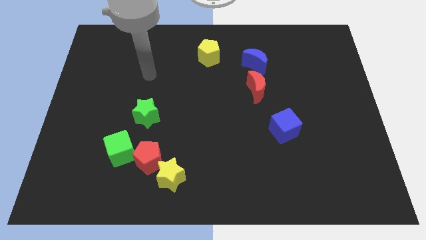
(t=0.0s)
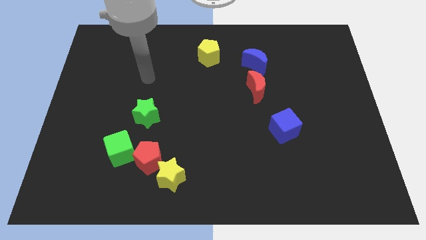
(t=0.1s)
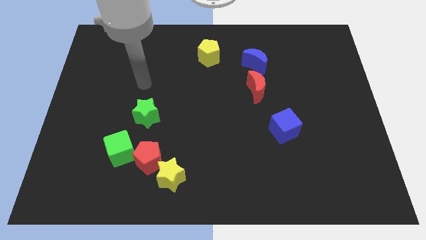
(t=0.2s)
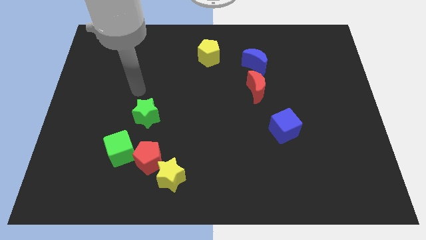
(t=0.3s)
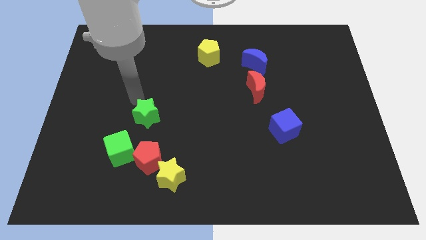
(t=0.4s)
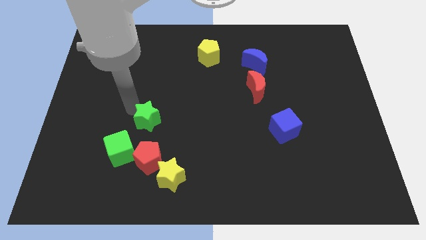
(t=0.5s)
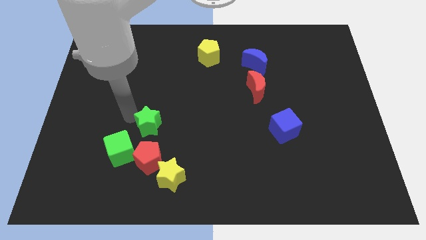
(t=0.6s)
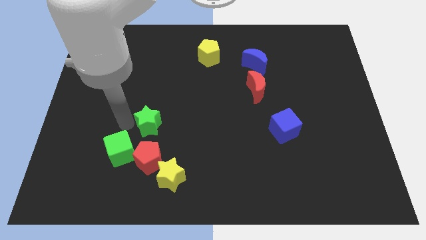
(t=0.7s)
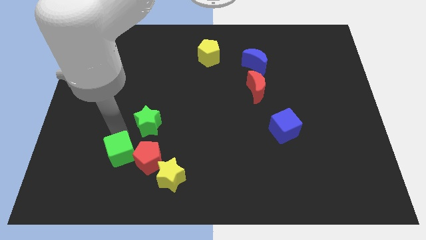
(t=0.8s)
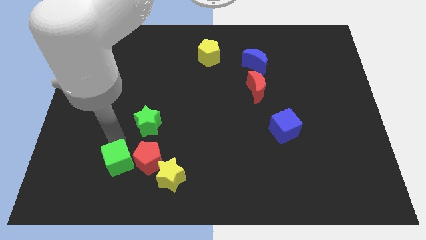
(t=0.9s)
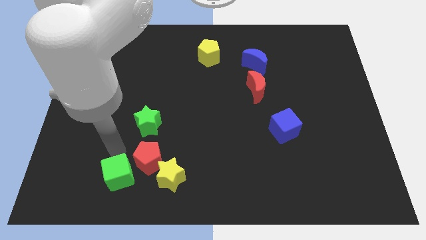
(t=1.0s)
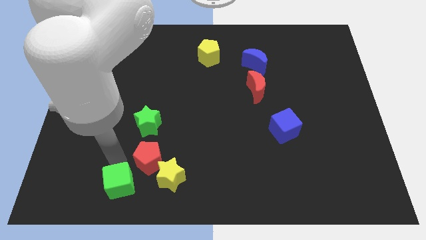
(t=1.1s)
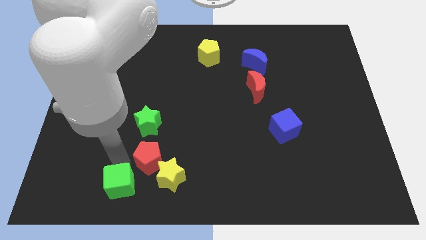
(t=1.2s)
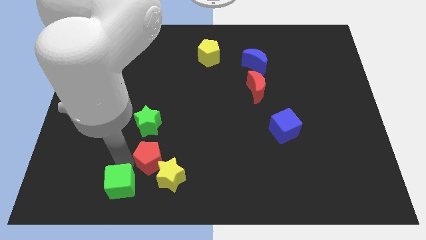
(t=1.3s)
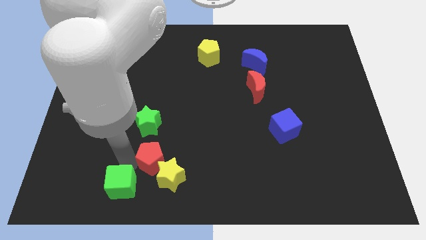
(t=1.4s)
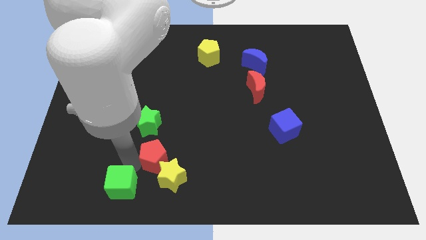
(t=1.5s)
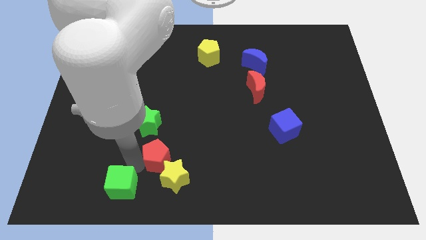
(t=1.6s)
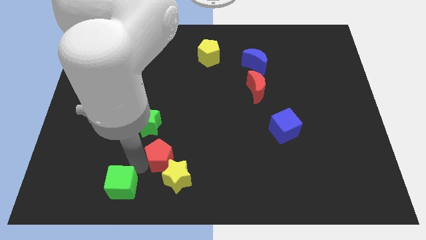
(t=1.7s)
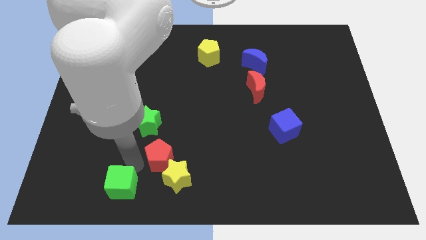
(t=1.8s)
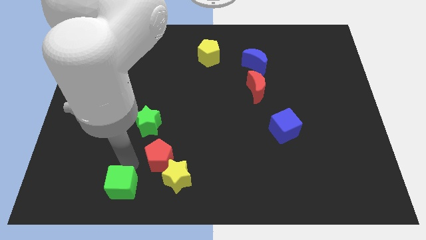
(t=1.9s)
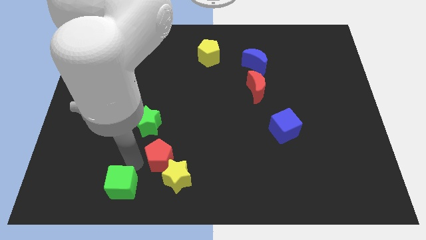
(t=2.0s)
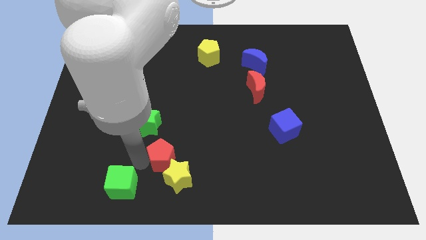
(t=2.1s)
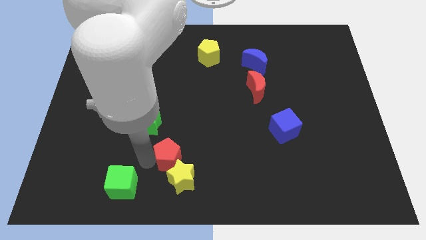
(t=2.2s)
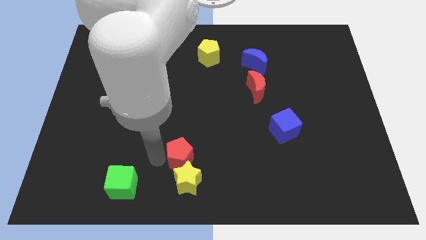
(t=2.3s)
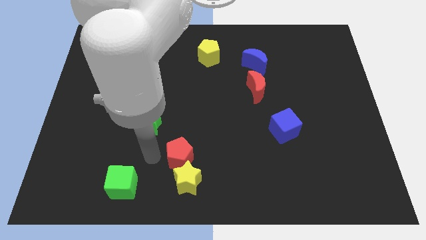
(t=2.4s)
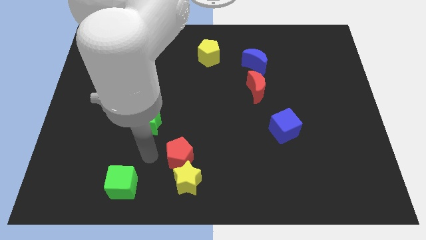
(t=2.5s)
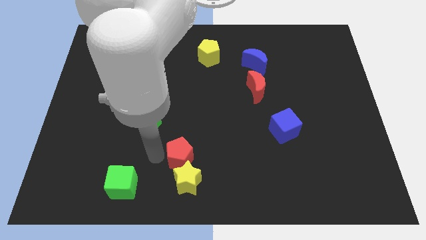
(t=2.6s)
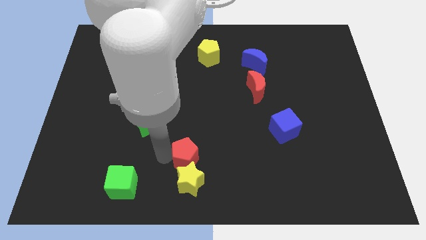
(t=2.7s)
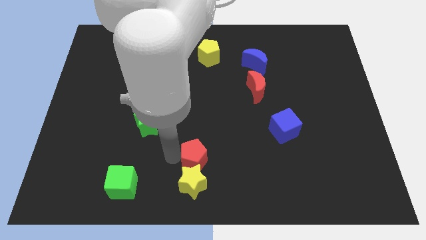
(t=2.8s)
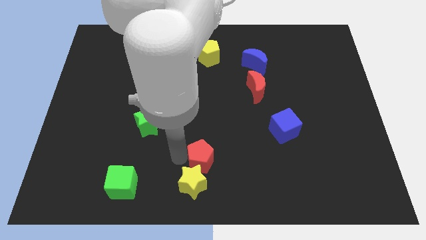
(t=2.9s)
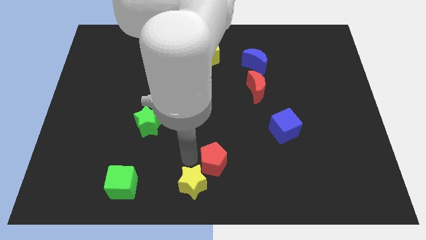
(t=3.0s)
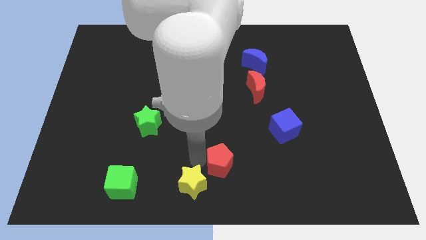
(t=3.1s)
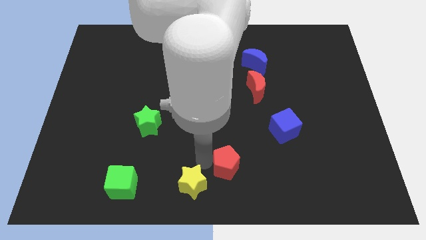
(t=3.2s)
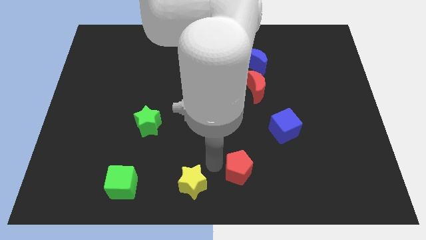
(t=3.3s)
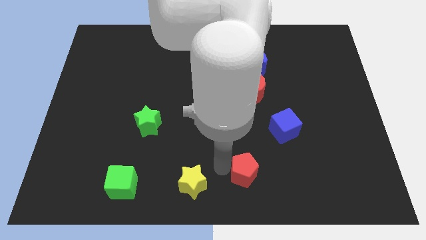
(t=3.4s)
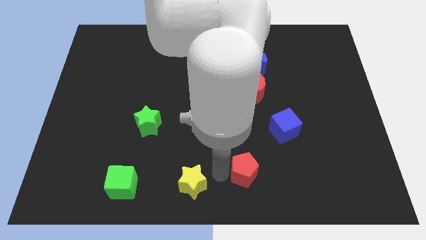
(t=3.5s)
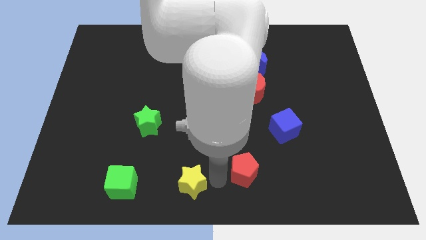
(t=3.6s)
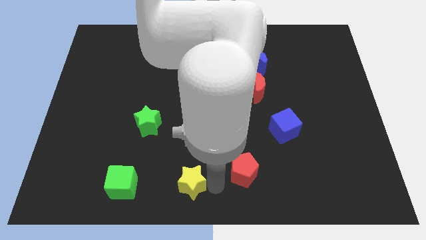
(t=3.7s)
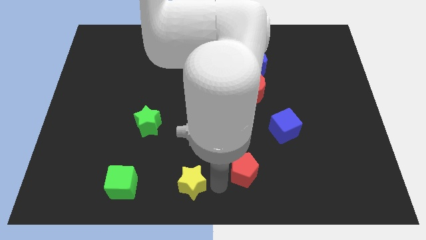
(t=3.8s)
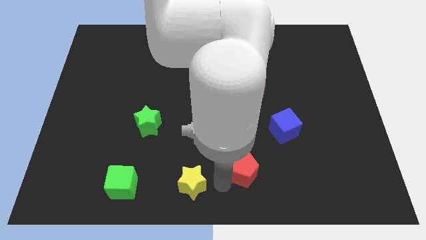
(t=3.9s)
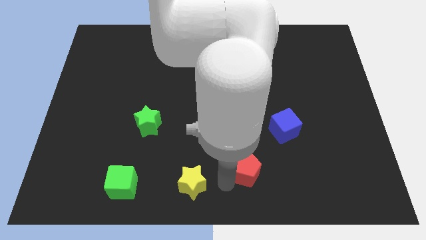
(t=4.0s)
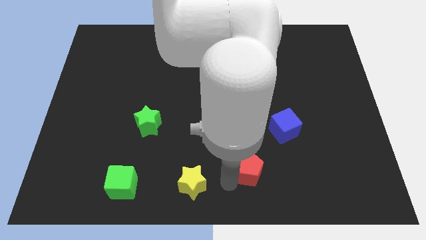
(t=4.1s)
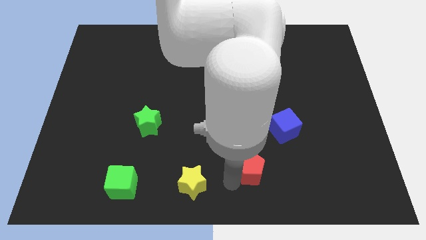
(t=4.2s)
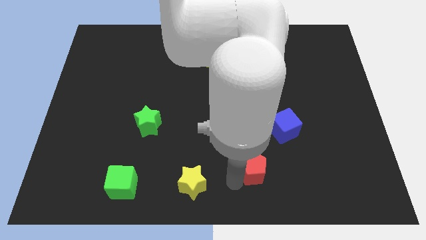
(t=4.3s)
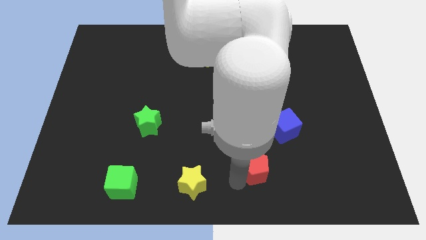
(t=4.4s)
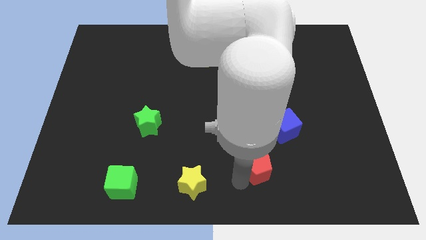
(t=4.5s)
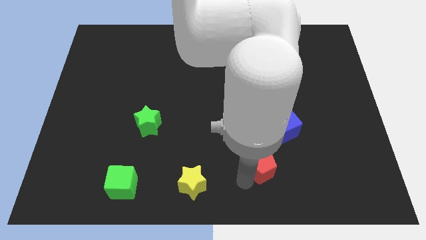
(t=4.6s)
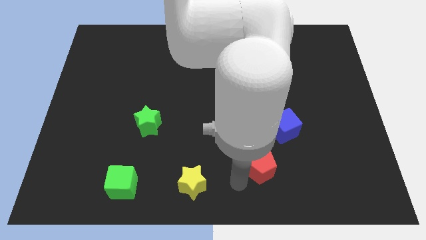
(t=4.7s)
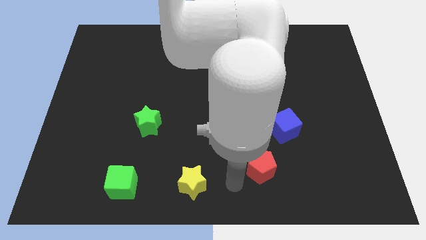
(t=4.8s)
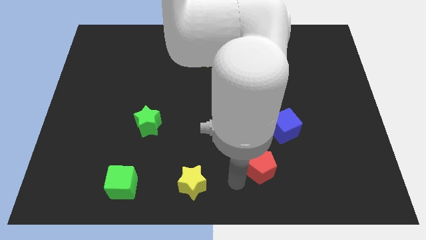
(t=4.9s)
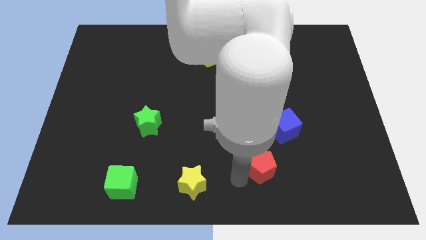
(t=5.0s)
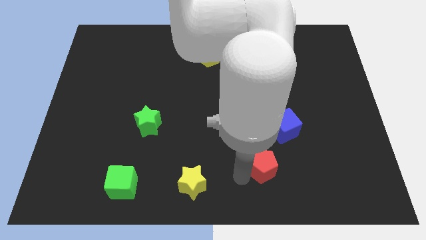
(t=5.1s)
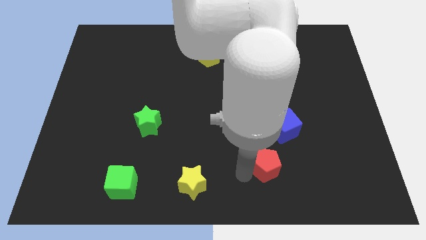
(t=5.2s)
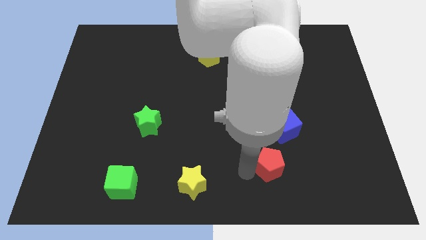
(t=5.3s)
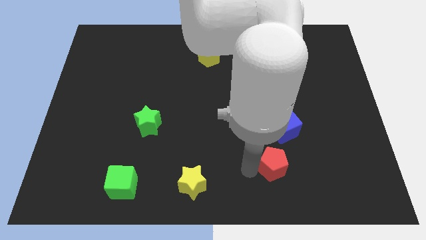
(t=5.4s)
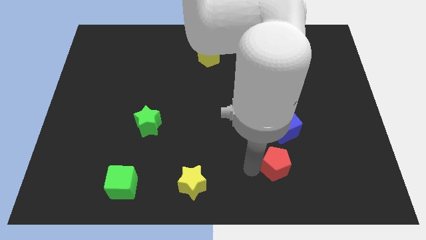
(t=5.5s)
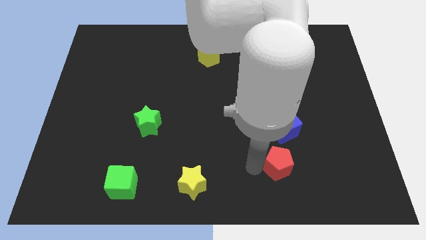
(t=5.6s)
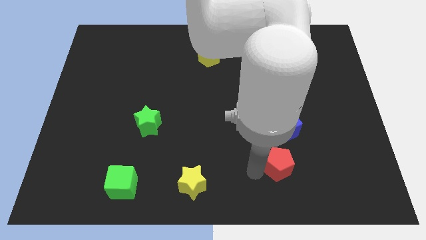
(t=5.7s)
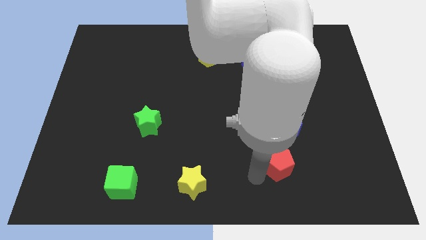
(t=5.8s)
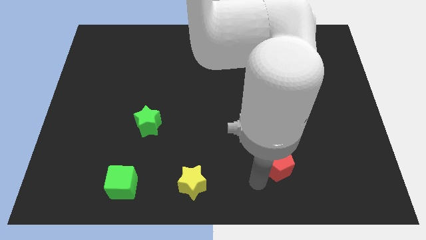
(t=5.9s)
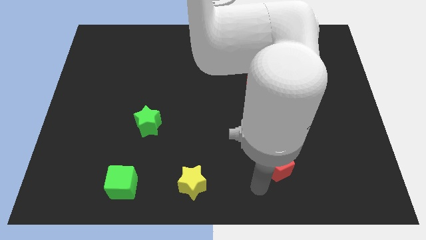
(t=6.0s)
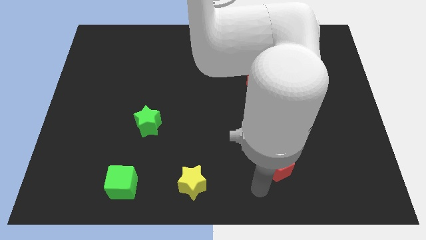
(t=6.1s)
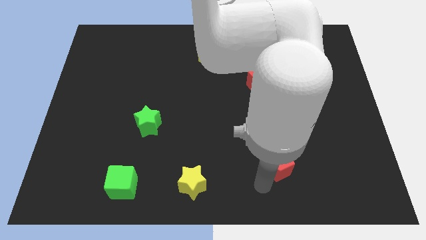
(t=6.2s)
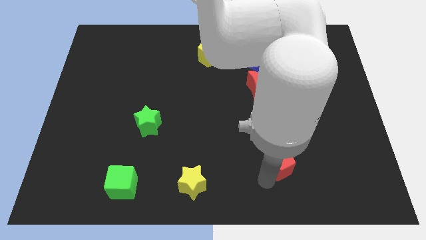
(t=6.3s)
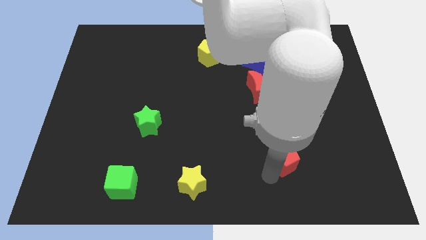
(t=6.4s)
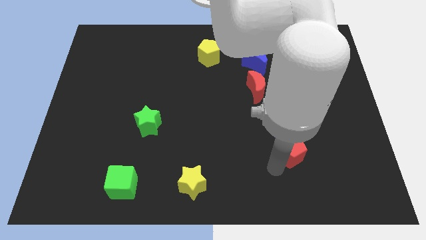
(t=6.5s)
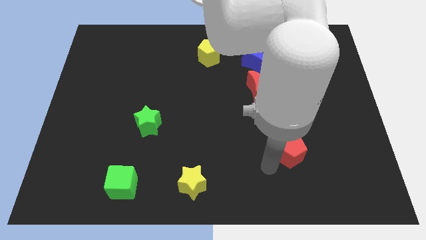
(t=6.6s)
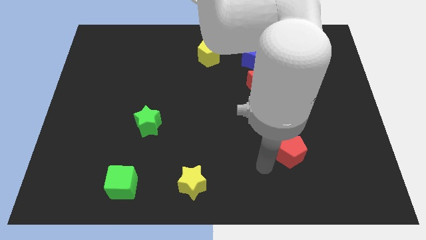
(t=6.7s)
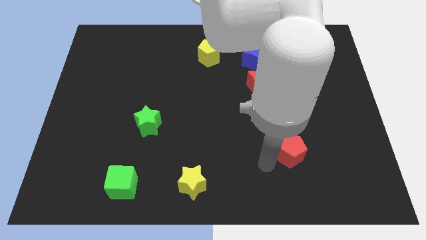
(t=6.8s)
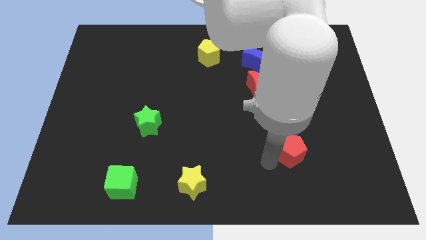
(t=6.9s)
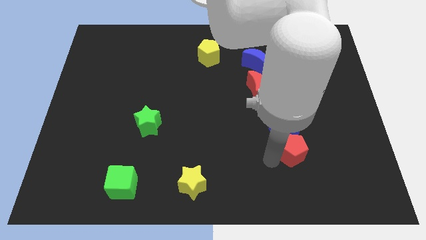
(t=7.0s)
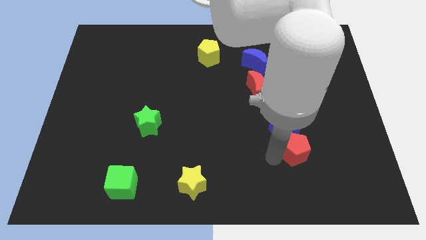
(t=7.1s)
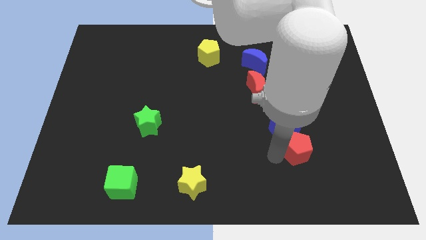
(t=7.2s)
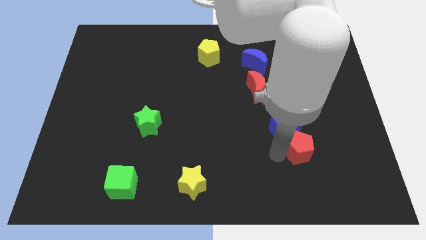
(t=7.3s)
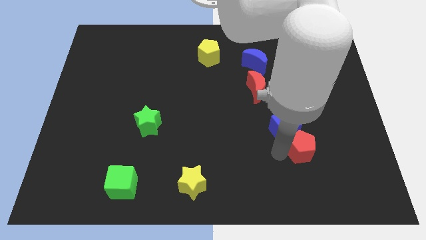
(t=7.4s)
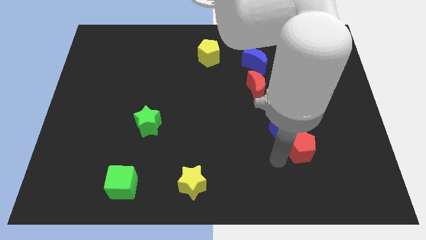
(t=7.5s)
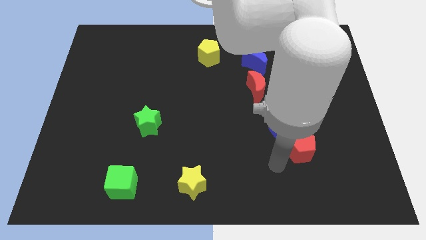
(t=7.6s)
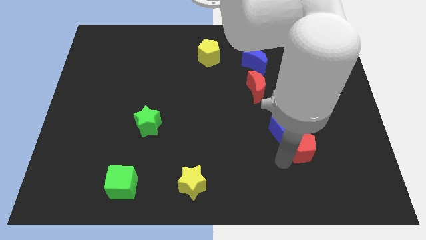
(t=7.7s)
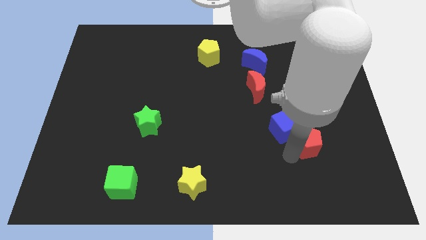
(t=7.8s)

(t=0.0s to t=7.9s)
slide the red pentagon to the right of the blue cube
